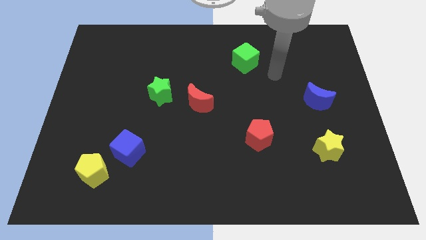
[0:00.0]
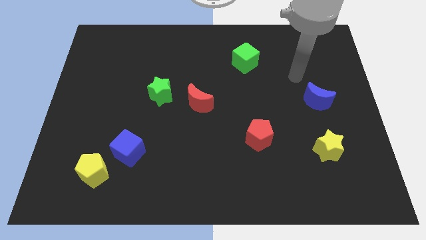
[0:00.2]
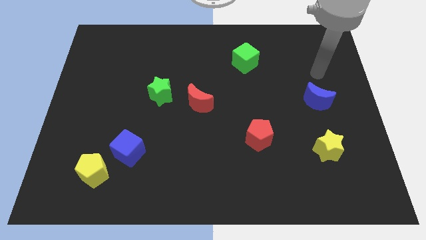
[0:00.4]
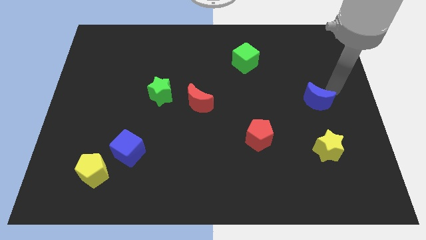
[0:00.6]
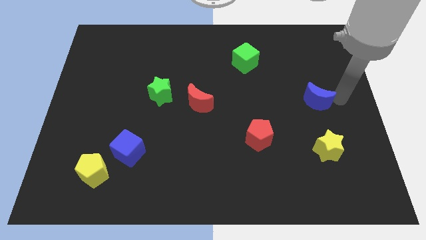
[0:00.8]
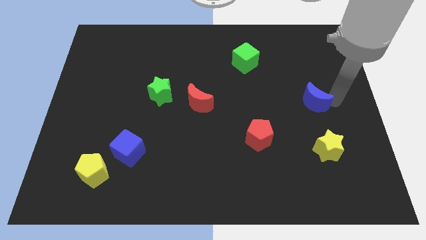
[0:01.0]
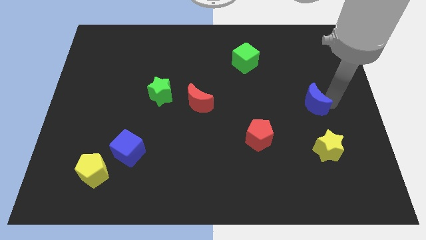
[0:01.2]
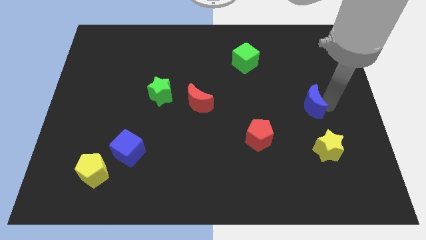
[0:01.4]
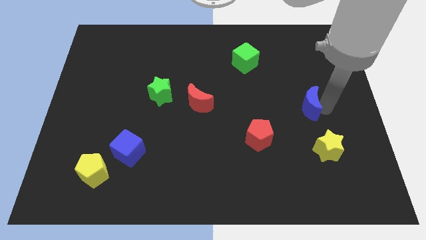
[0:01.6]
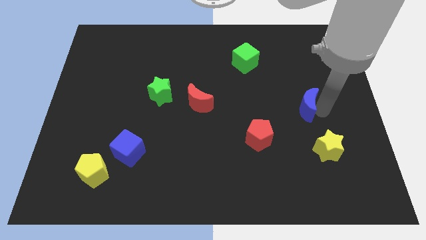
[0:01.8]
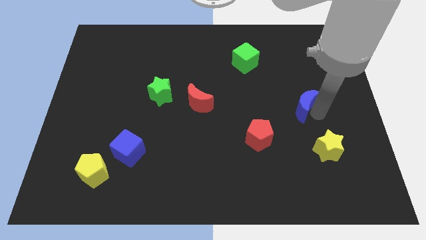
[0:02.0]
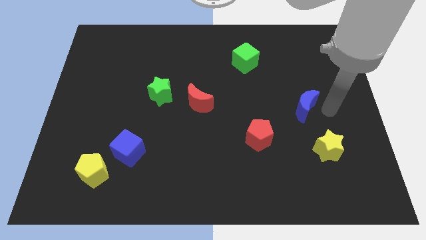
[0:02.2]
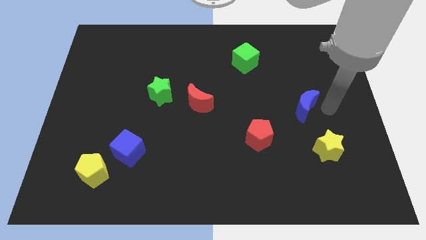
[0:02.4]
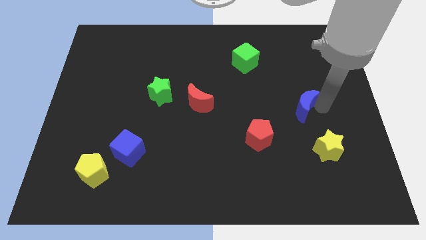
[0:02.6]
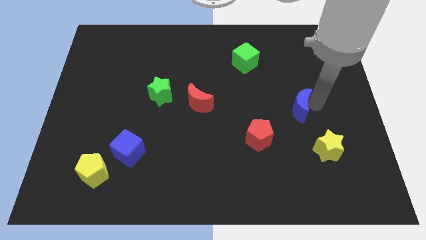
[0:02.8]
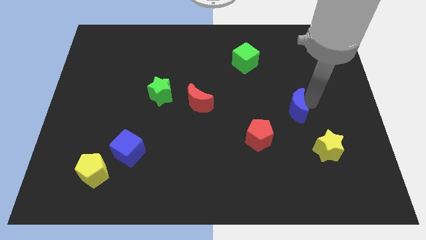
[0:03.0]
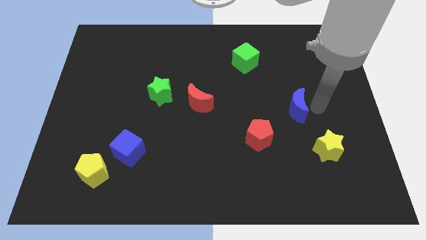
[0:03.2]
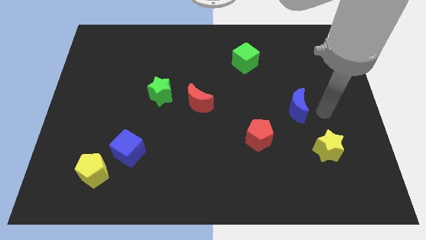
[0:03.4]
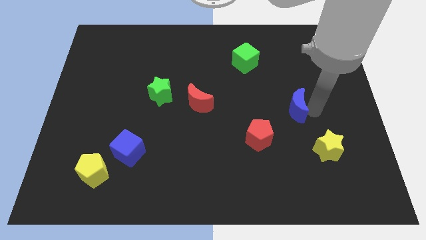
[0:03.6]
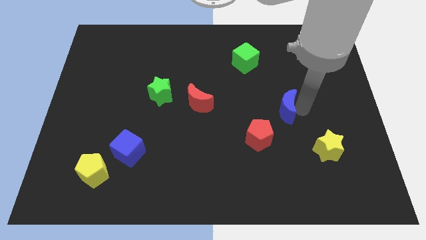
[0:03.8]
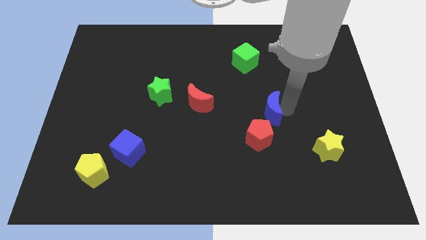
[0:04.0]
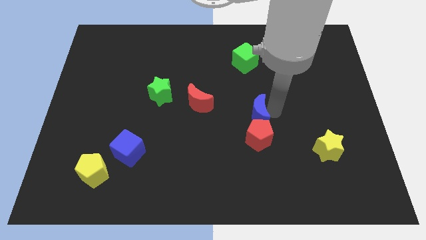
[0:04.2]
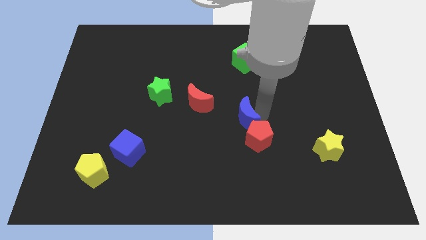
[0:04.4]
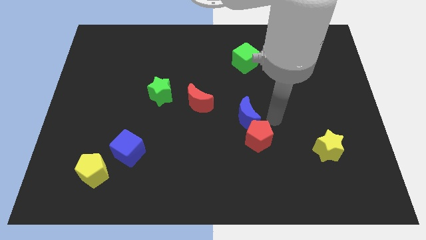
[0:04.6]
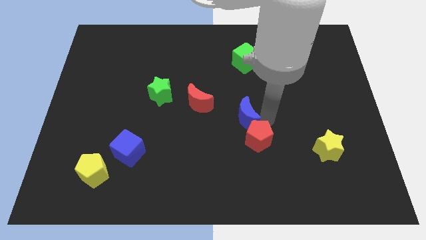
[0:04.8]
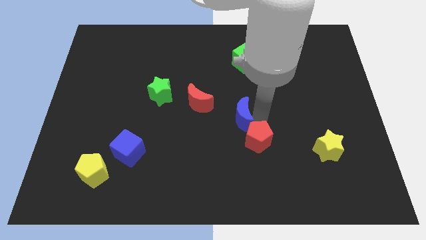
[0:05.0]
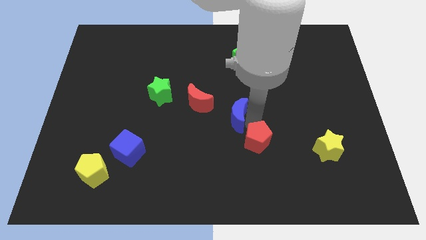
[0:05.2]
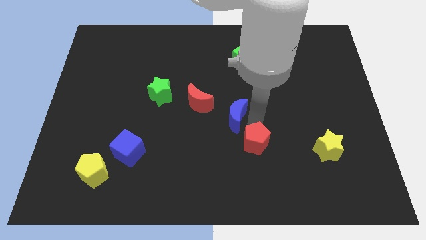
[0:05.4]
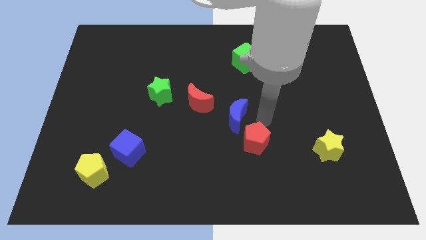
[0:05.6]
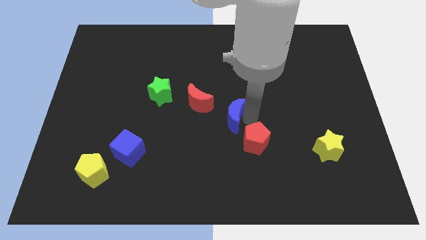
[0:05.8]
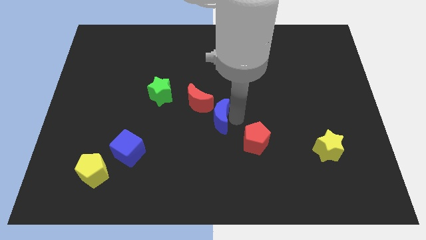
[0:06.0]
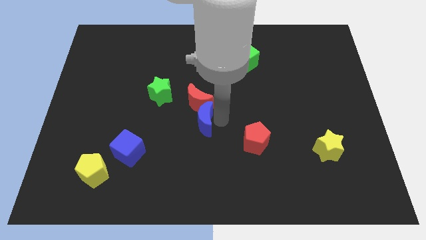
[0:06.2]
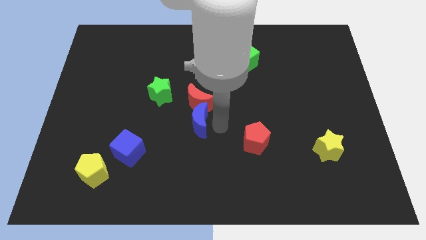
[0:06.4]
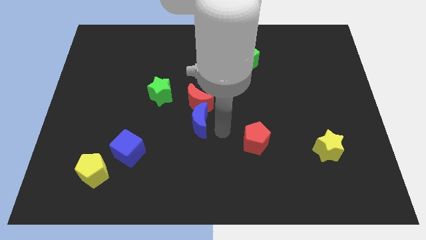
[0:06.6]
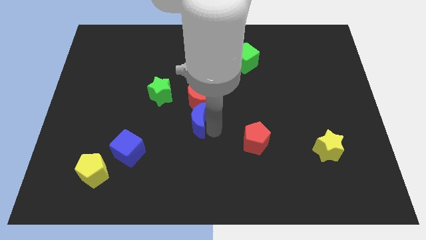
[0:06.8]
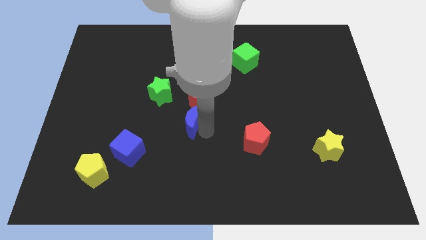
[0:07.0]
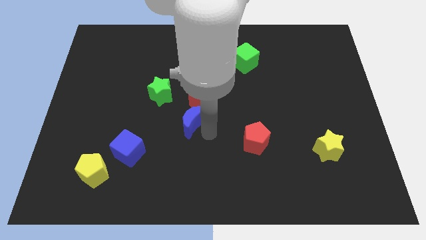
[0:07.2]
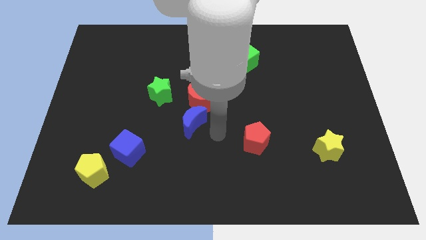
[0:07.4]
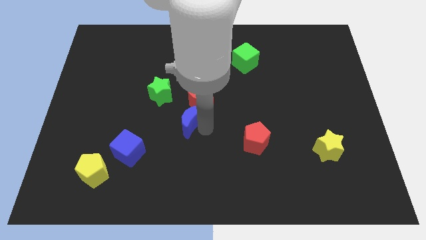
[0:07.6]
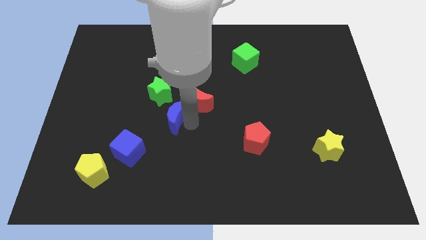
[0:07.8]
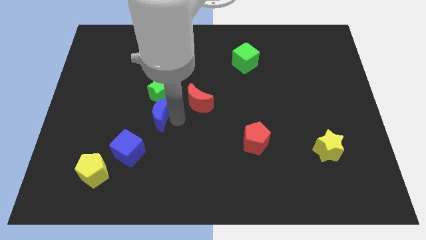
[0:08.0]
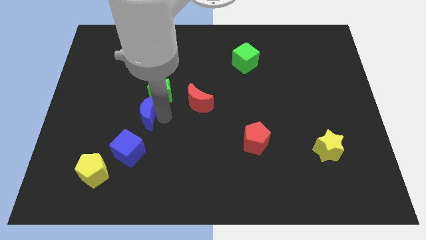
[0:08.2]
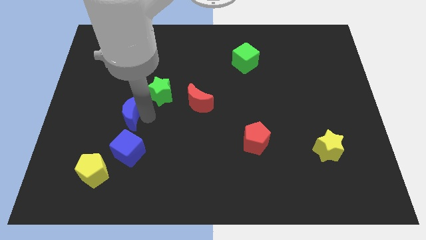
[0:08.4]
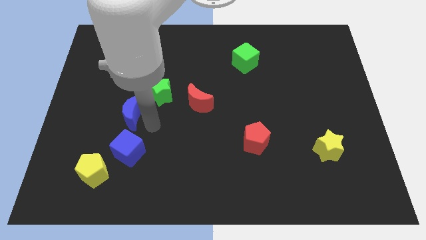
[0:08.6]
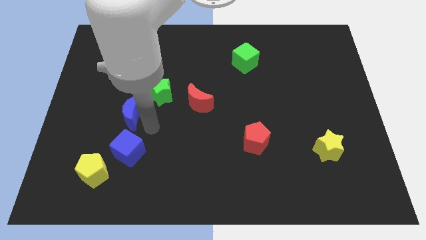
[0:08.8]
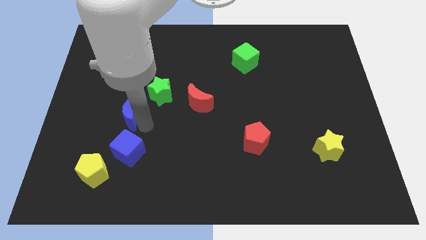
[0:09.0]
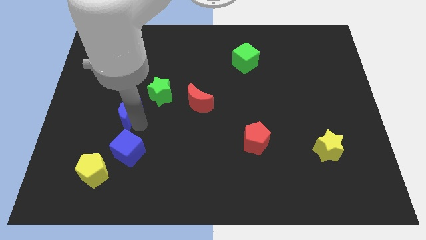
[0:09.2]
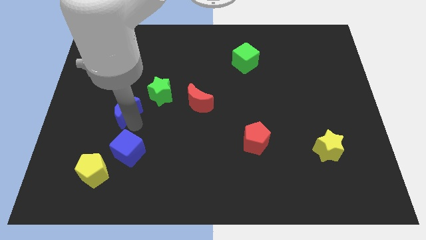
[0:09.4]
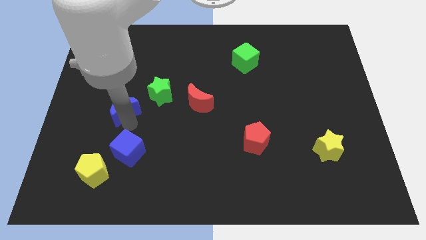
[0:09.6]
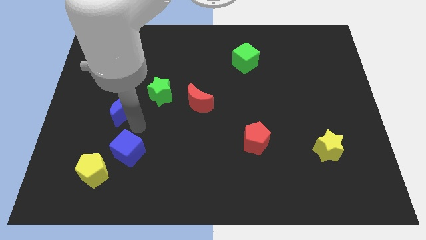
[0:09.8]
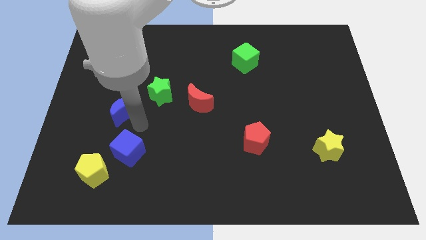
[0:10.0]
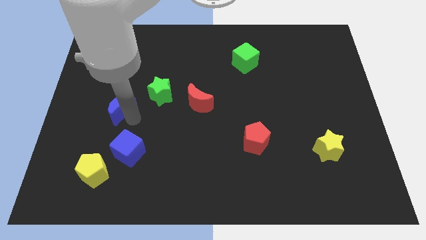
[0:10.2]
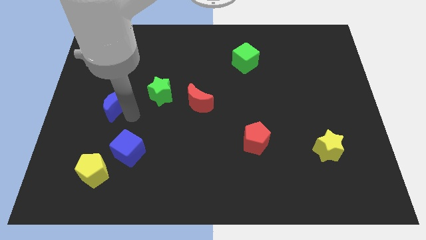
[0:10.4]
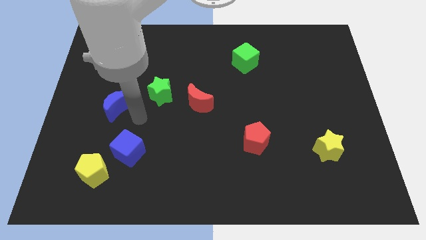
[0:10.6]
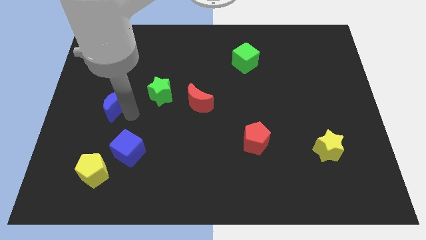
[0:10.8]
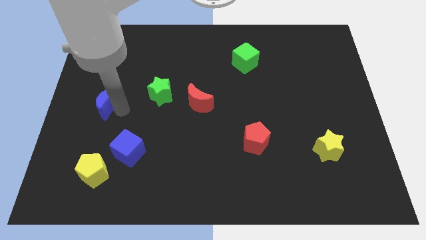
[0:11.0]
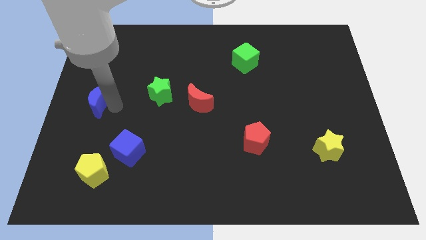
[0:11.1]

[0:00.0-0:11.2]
push the blue moon to the left side of the board

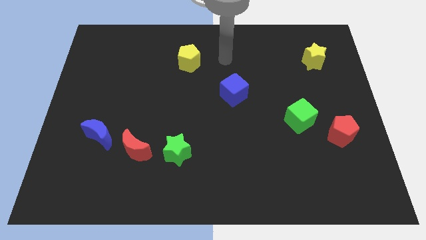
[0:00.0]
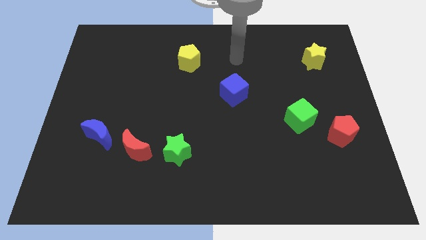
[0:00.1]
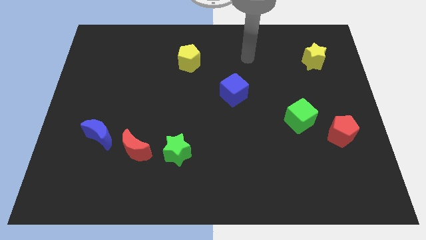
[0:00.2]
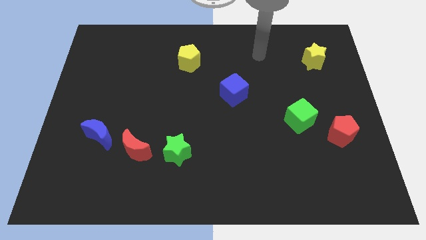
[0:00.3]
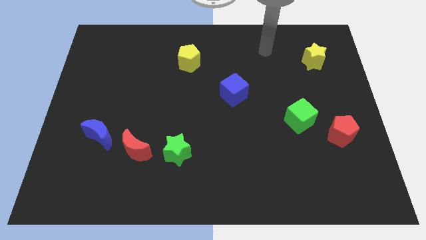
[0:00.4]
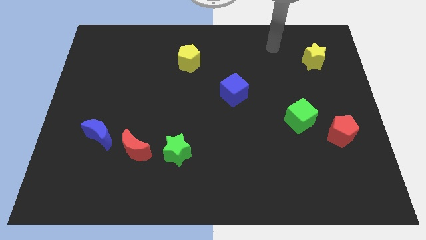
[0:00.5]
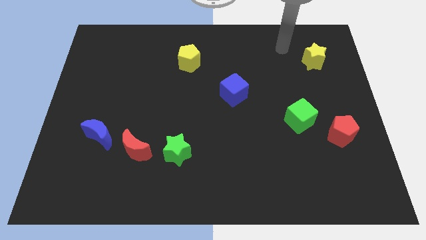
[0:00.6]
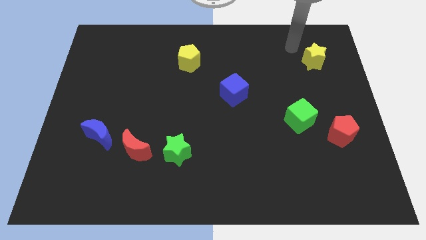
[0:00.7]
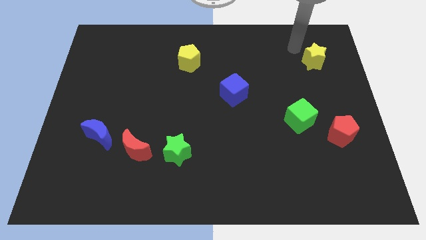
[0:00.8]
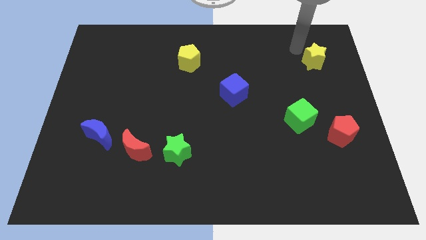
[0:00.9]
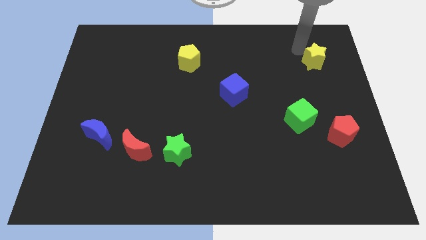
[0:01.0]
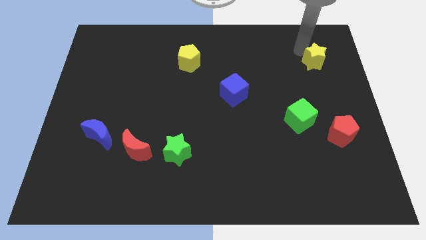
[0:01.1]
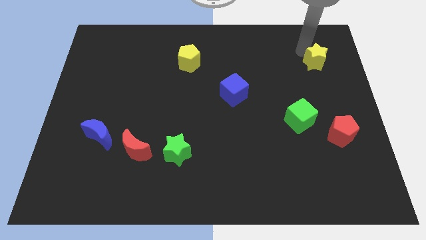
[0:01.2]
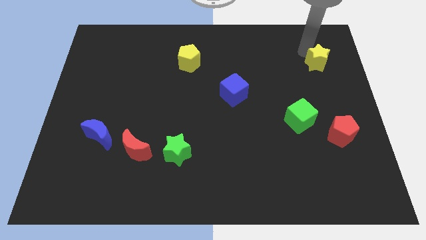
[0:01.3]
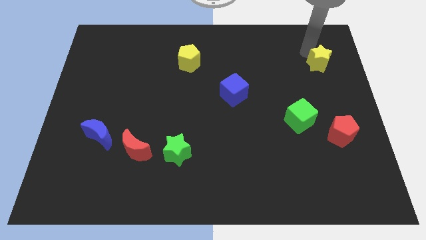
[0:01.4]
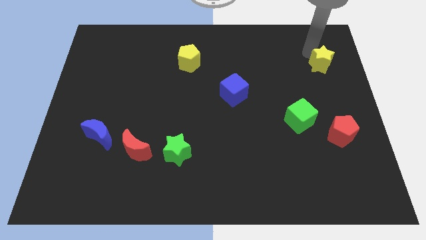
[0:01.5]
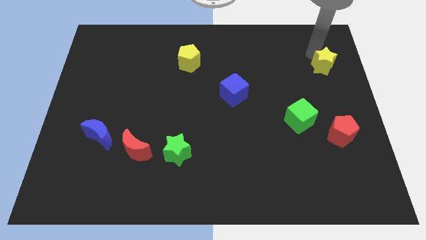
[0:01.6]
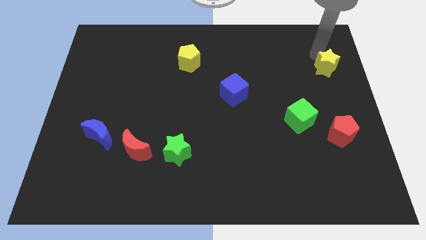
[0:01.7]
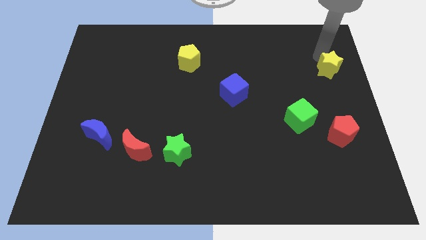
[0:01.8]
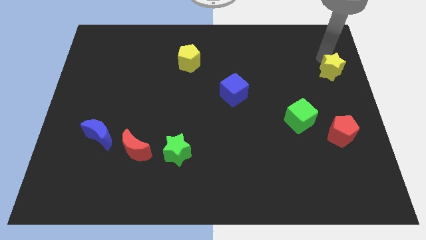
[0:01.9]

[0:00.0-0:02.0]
slide the yellow star to the right side
